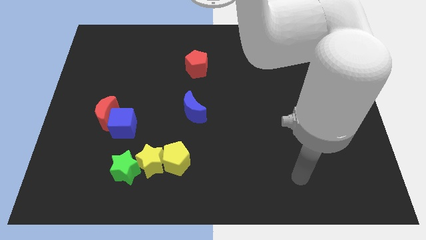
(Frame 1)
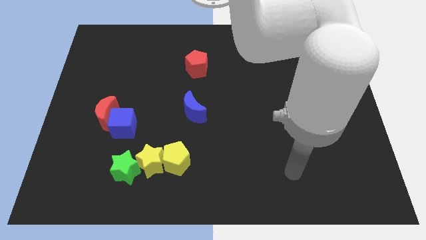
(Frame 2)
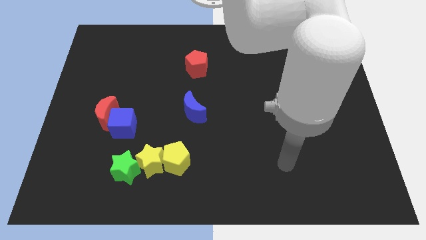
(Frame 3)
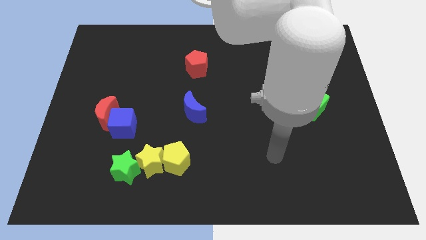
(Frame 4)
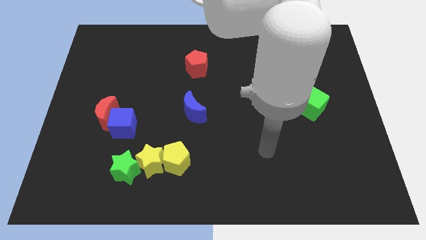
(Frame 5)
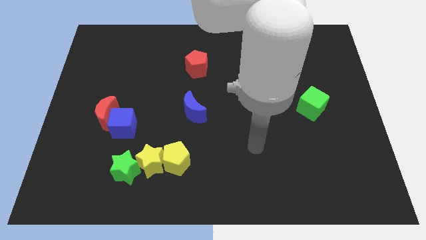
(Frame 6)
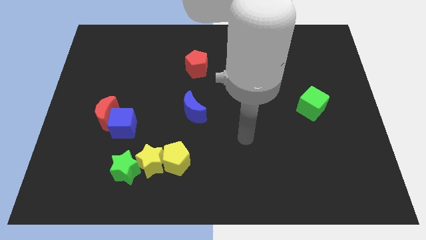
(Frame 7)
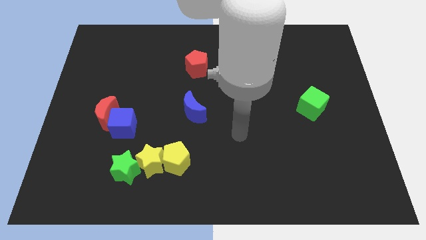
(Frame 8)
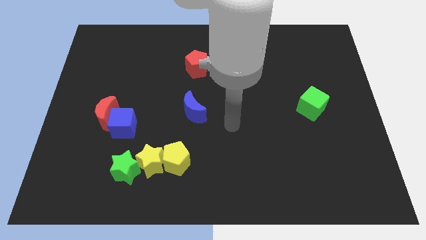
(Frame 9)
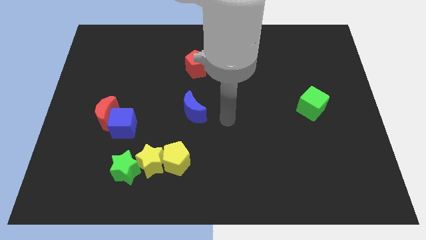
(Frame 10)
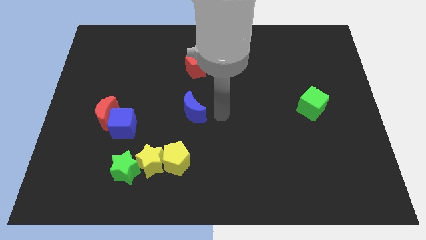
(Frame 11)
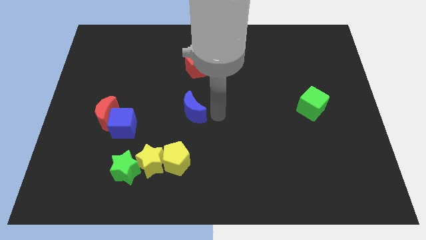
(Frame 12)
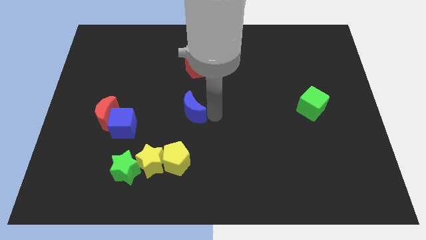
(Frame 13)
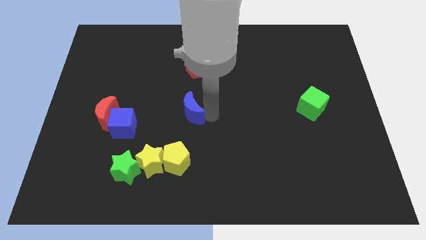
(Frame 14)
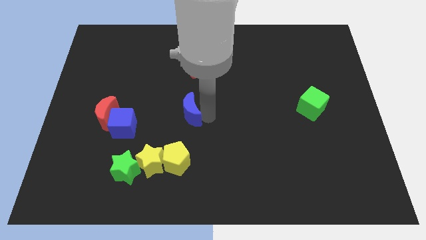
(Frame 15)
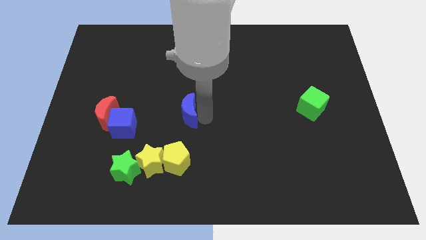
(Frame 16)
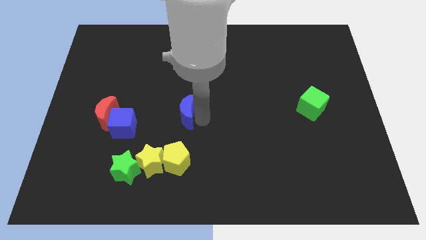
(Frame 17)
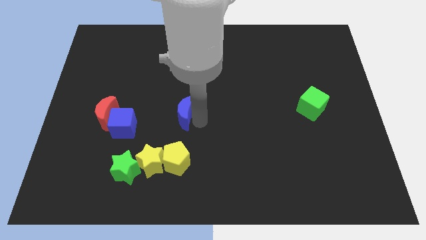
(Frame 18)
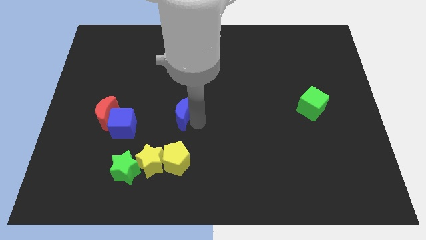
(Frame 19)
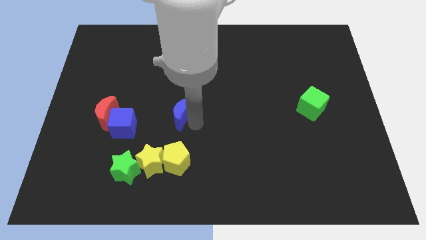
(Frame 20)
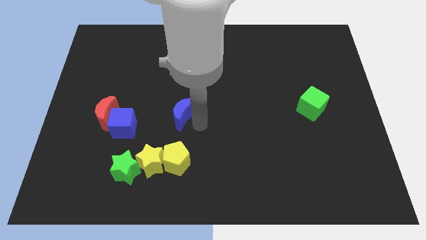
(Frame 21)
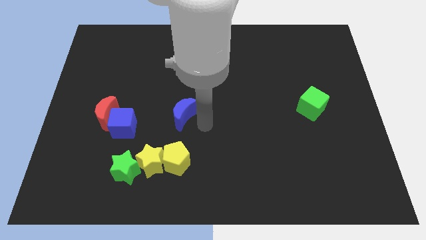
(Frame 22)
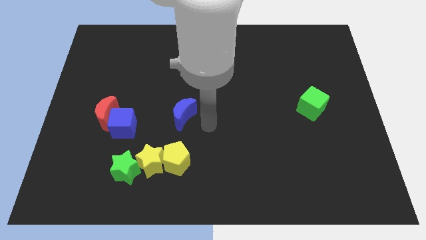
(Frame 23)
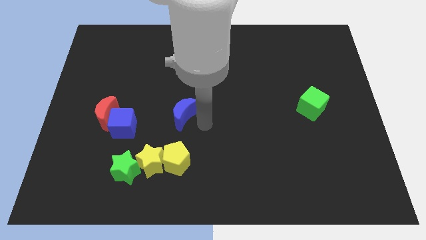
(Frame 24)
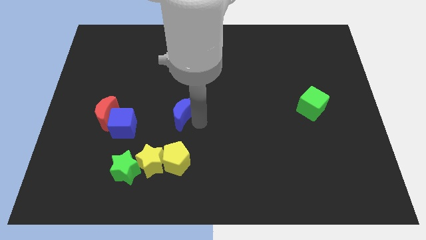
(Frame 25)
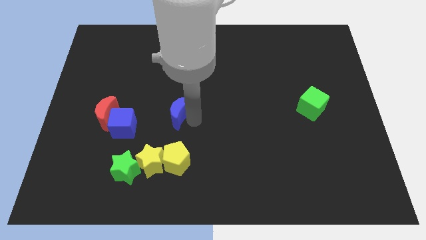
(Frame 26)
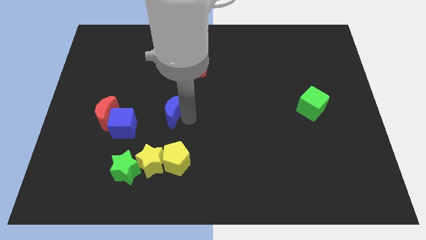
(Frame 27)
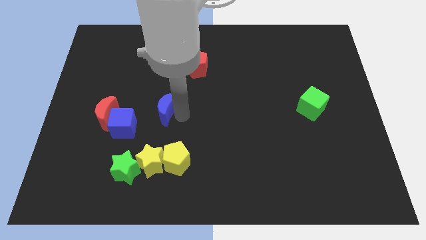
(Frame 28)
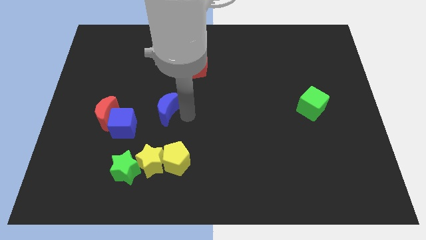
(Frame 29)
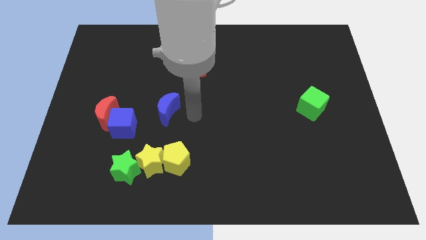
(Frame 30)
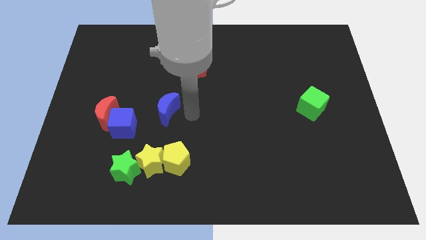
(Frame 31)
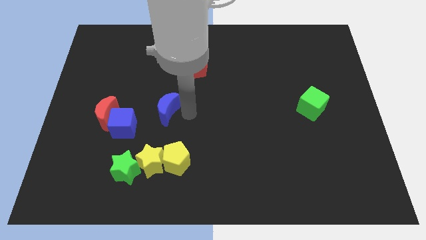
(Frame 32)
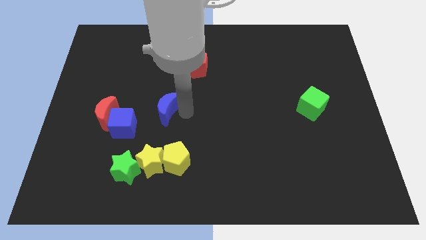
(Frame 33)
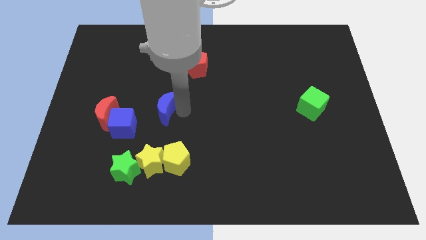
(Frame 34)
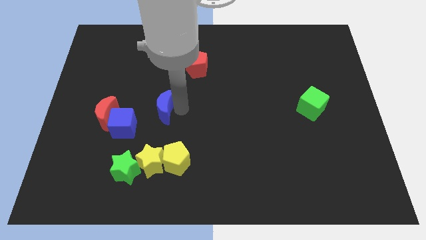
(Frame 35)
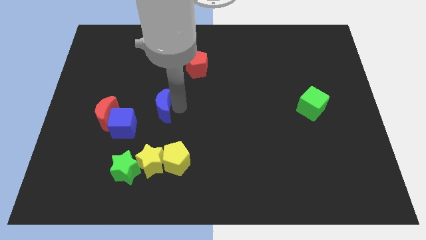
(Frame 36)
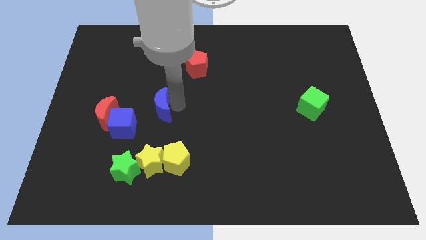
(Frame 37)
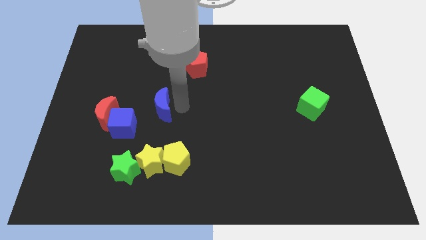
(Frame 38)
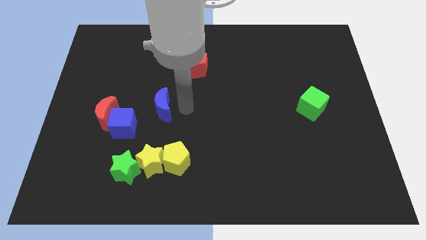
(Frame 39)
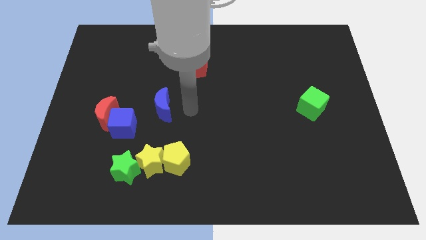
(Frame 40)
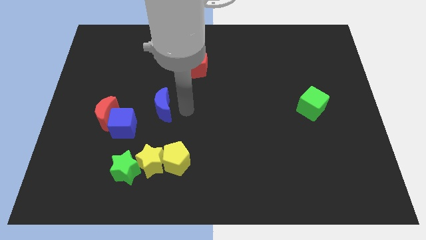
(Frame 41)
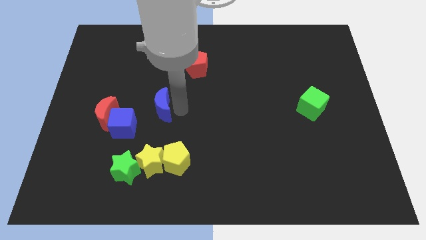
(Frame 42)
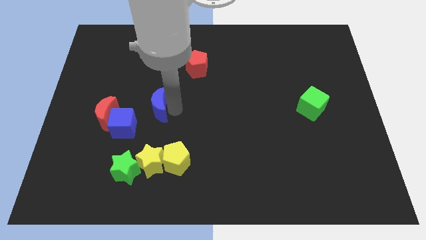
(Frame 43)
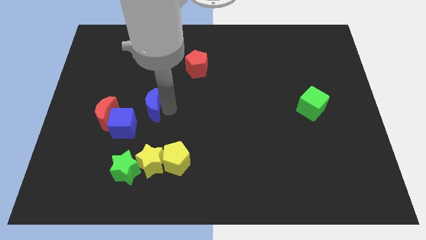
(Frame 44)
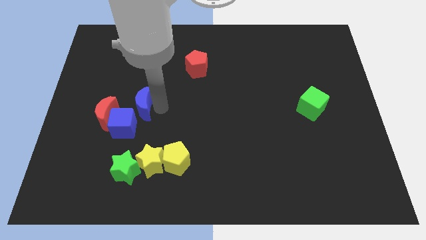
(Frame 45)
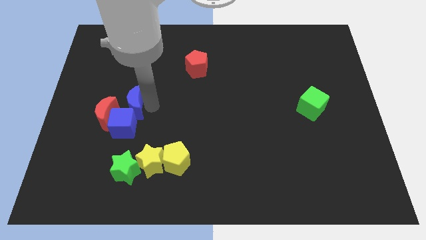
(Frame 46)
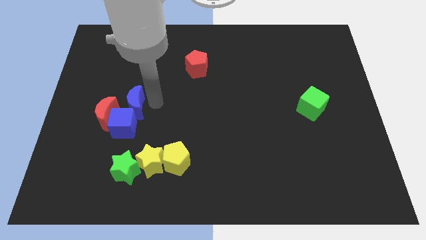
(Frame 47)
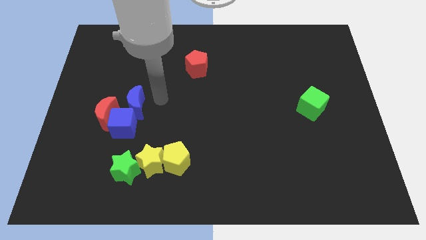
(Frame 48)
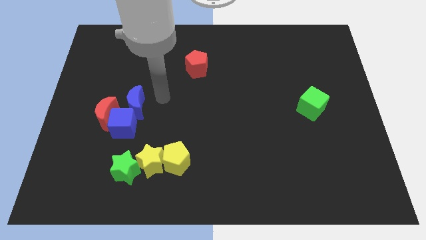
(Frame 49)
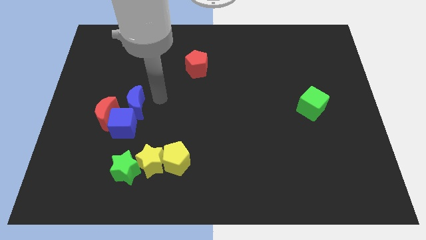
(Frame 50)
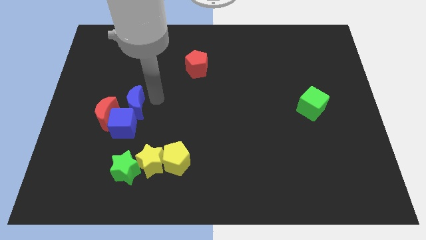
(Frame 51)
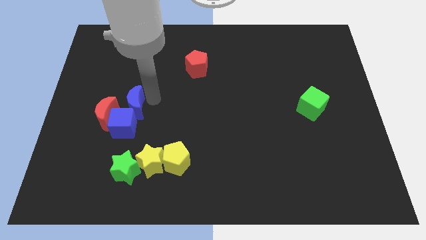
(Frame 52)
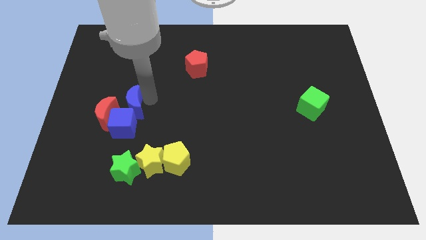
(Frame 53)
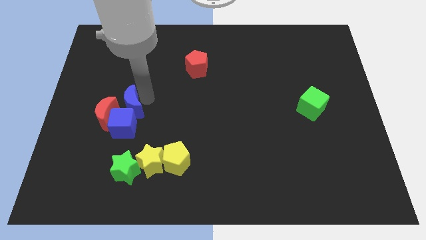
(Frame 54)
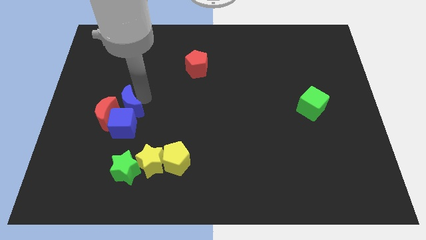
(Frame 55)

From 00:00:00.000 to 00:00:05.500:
slide the blue moon next to the red moon

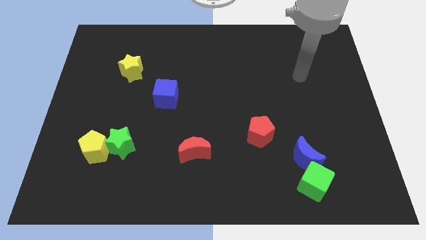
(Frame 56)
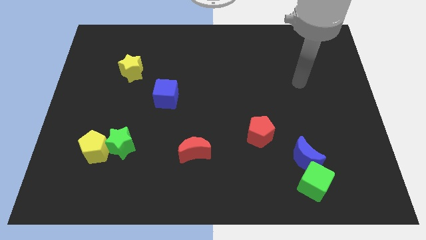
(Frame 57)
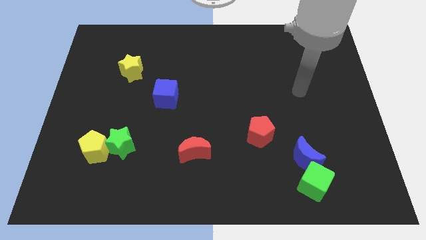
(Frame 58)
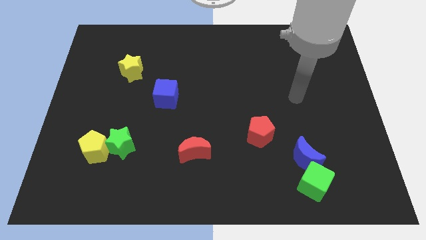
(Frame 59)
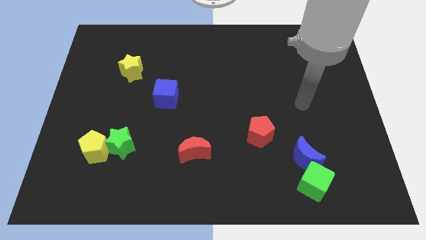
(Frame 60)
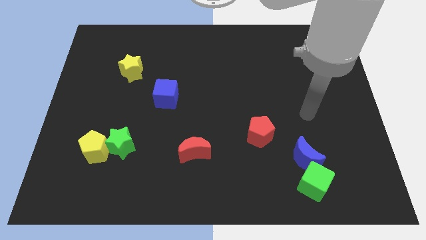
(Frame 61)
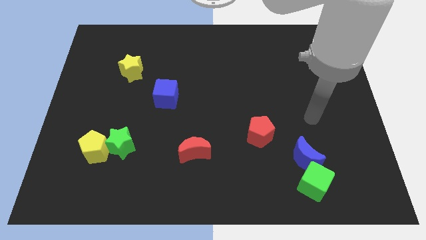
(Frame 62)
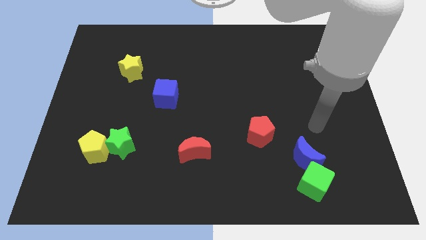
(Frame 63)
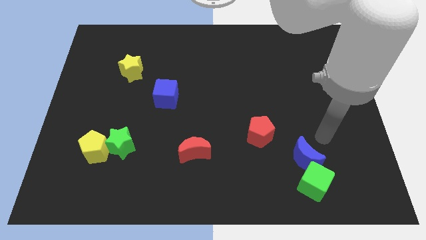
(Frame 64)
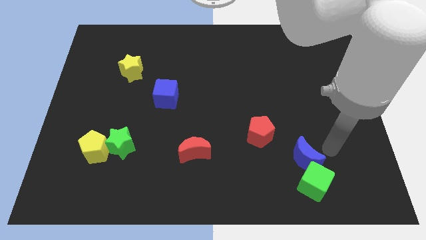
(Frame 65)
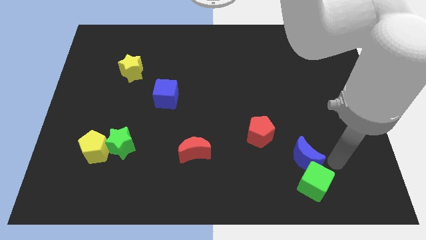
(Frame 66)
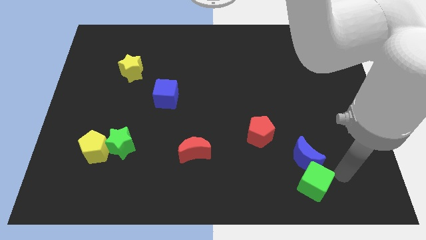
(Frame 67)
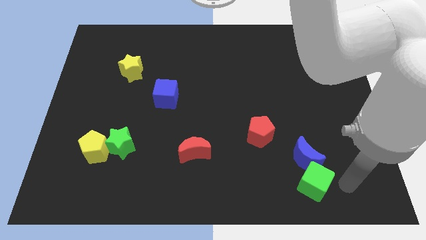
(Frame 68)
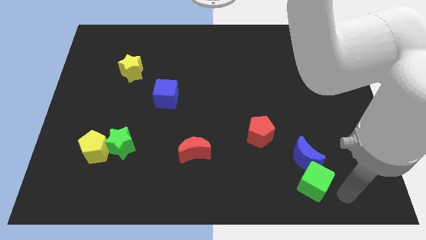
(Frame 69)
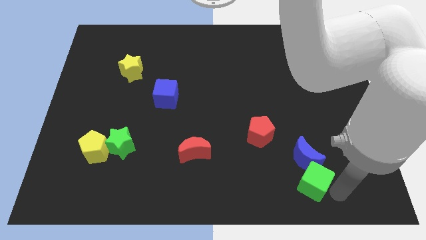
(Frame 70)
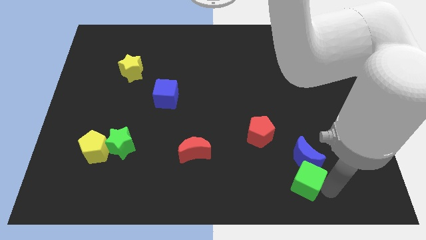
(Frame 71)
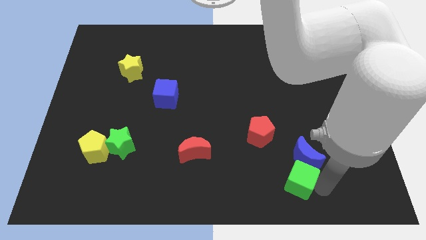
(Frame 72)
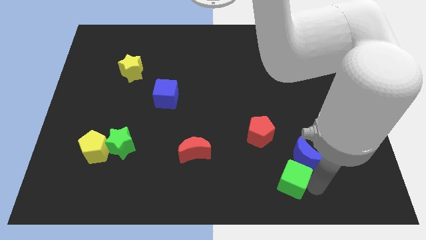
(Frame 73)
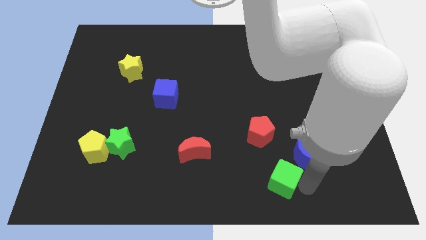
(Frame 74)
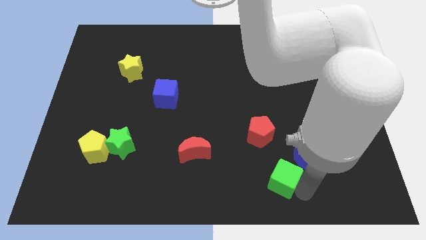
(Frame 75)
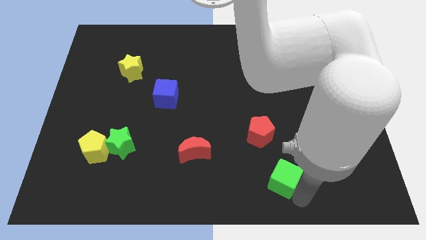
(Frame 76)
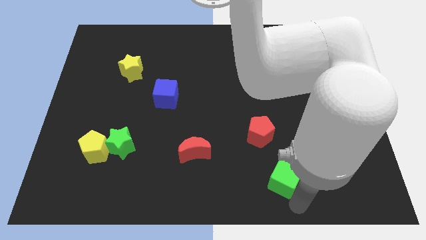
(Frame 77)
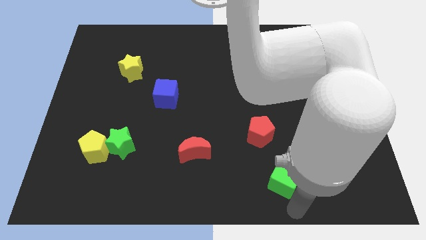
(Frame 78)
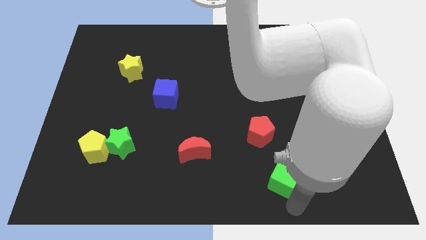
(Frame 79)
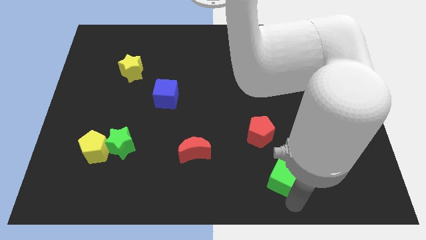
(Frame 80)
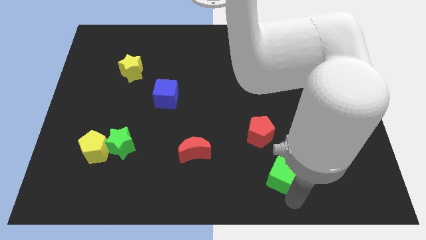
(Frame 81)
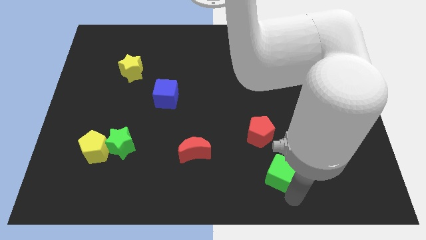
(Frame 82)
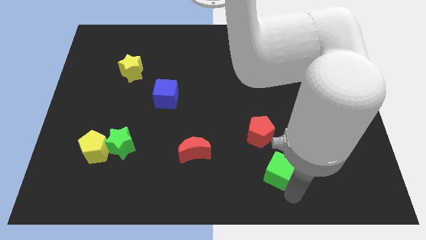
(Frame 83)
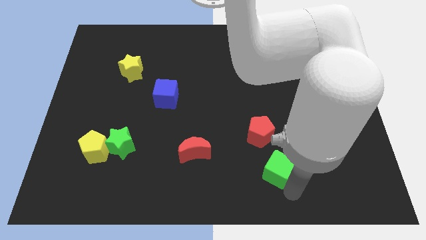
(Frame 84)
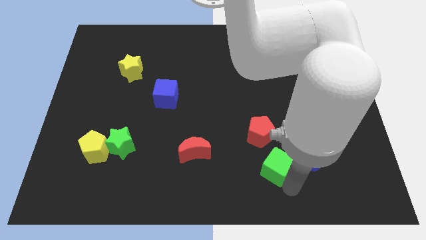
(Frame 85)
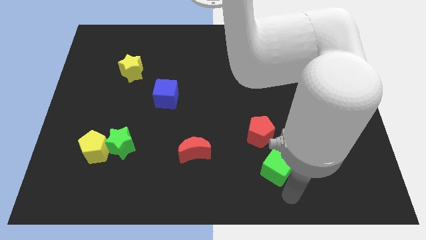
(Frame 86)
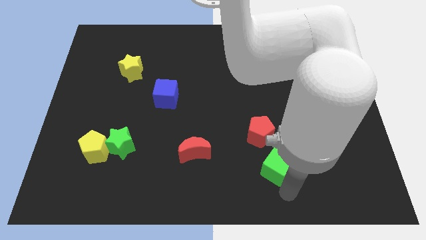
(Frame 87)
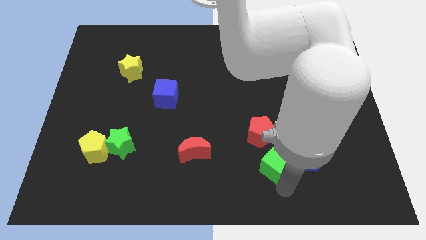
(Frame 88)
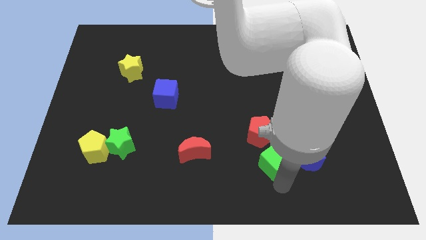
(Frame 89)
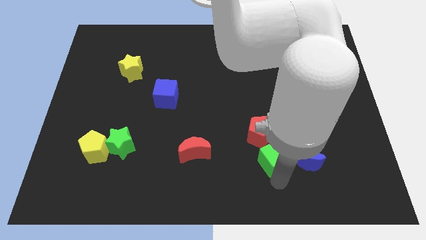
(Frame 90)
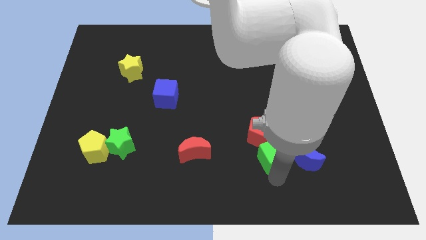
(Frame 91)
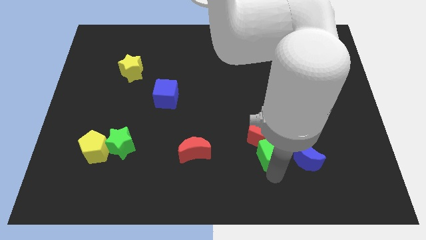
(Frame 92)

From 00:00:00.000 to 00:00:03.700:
push the green cube to the red pentagon
